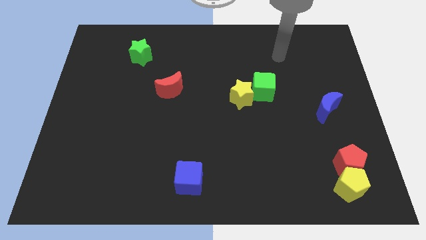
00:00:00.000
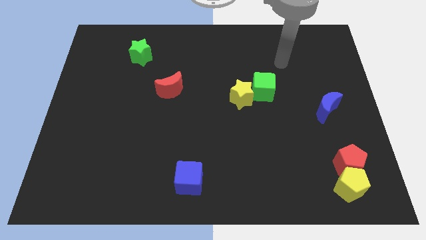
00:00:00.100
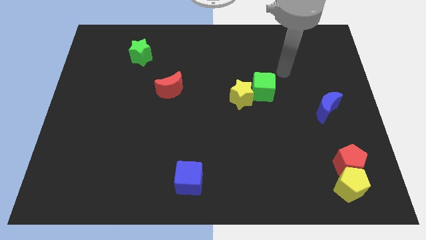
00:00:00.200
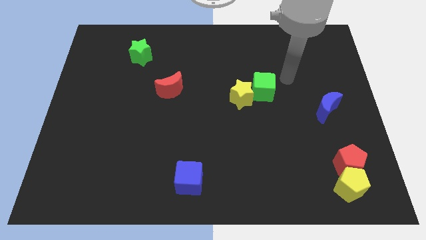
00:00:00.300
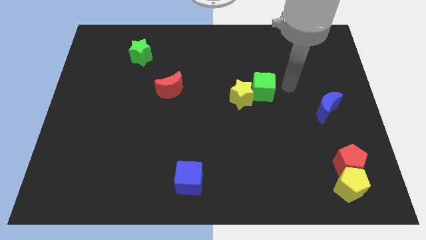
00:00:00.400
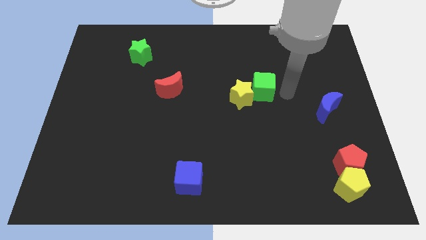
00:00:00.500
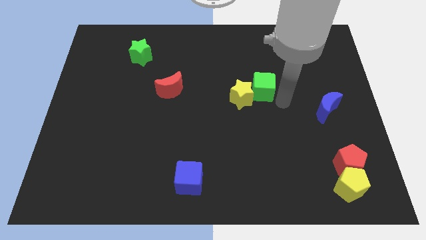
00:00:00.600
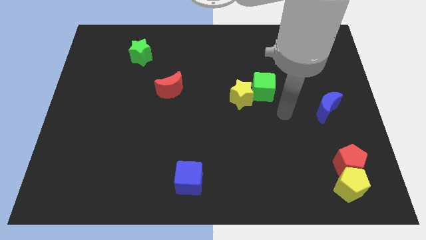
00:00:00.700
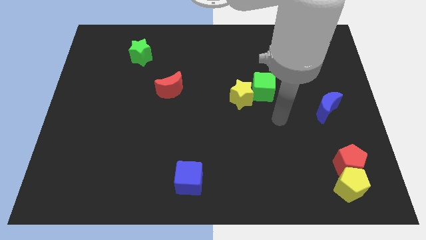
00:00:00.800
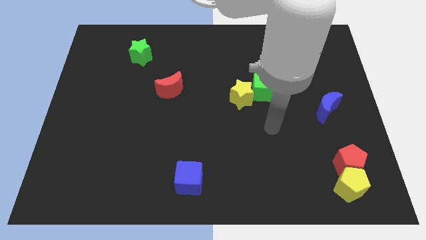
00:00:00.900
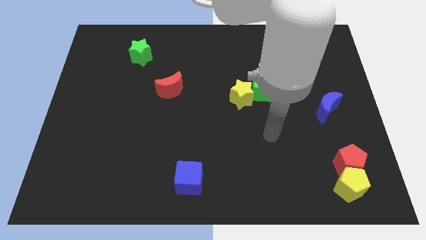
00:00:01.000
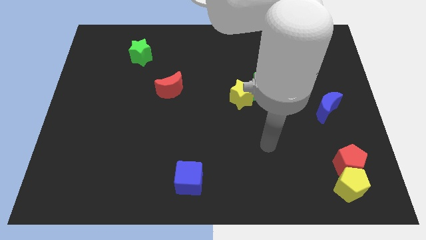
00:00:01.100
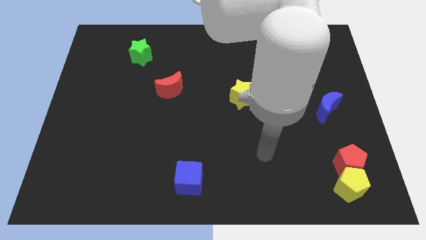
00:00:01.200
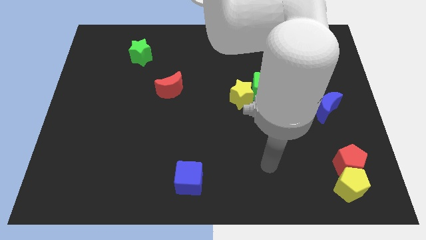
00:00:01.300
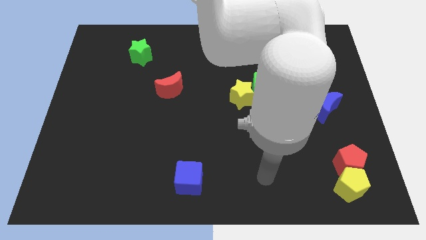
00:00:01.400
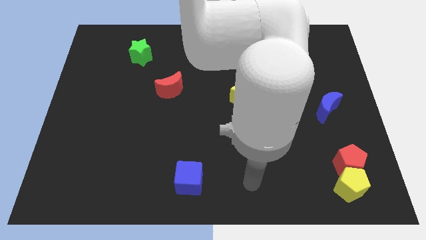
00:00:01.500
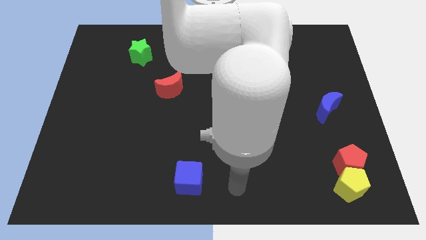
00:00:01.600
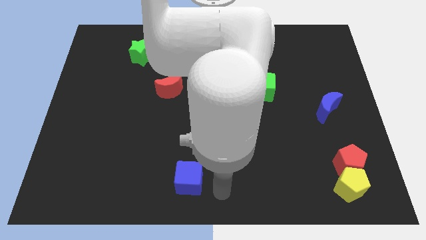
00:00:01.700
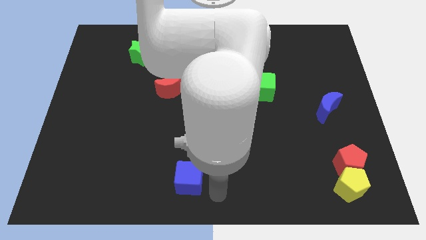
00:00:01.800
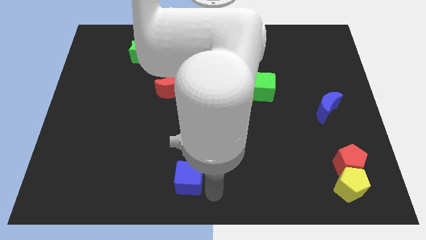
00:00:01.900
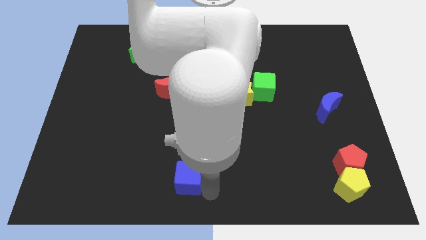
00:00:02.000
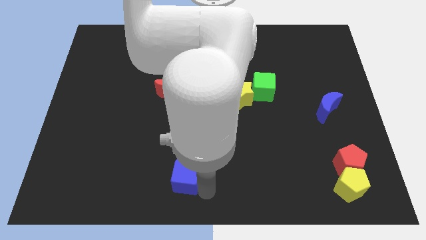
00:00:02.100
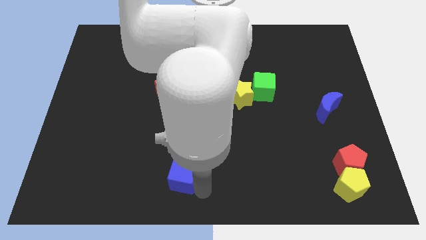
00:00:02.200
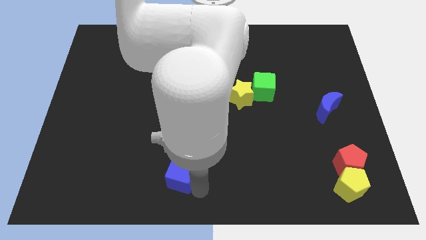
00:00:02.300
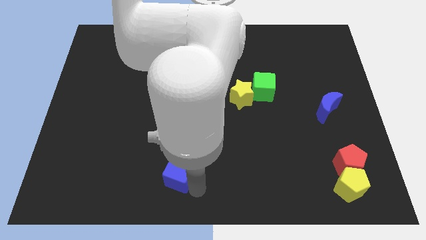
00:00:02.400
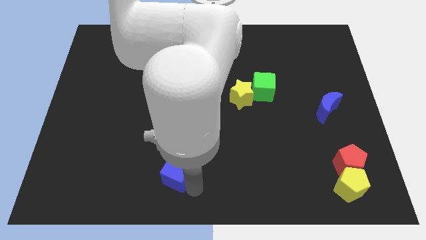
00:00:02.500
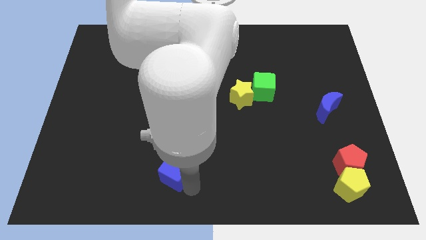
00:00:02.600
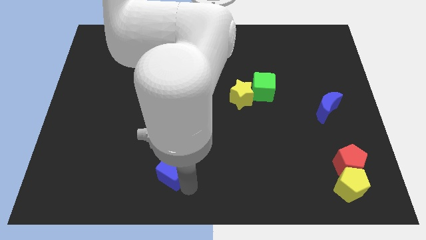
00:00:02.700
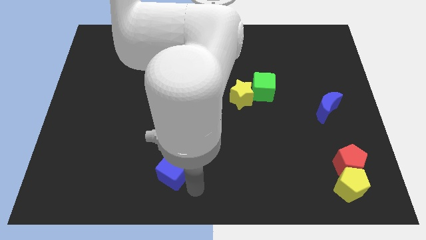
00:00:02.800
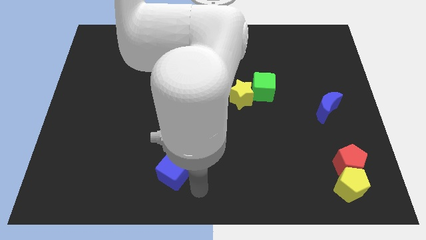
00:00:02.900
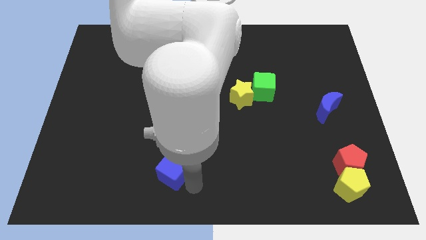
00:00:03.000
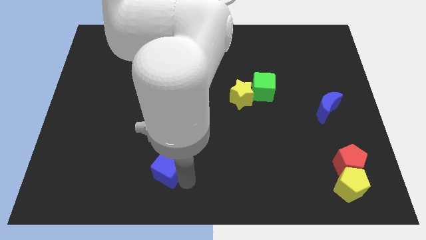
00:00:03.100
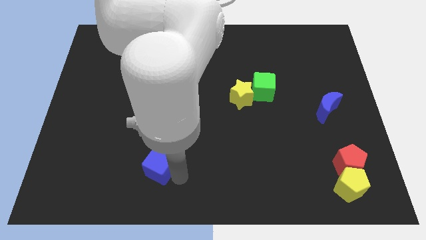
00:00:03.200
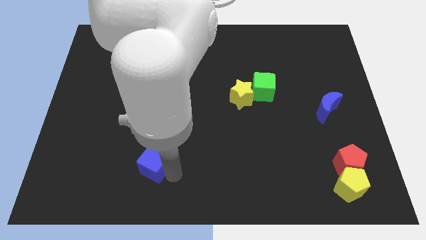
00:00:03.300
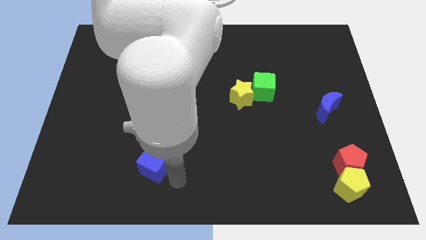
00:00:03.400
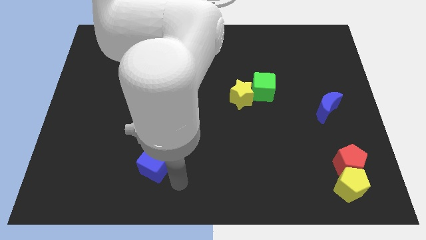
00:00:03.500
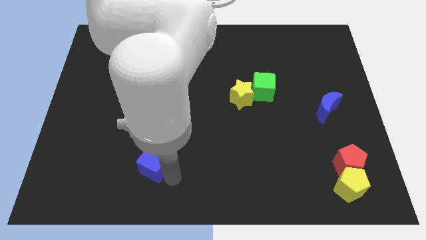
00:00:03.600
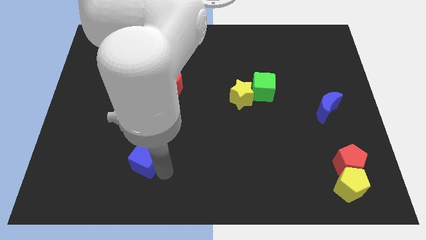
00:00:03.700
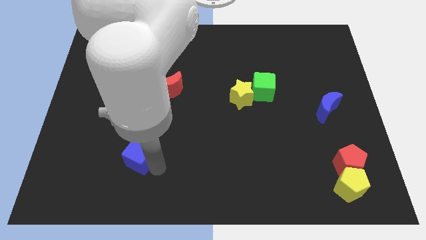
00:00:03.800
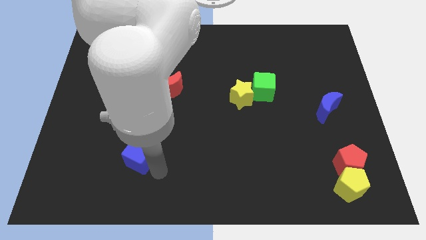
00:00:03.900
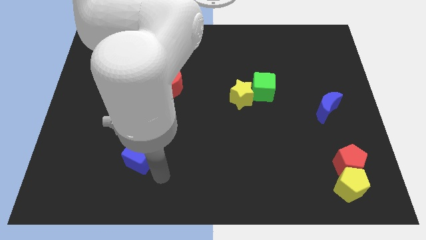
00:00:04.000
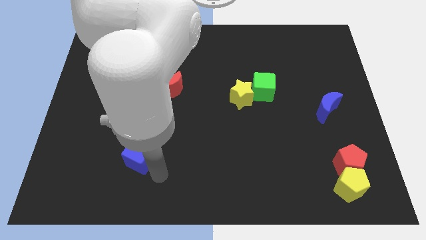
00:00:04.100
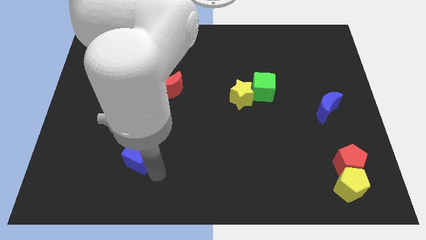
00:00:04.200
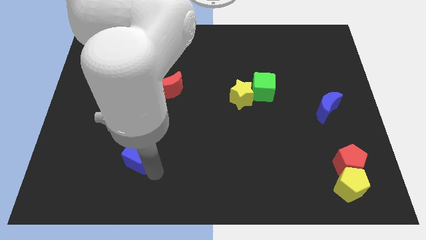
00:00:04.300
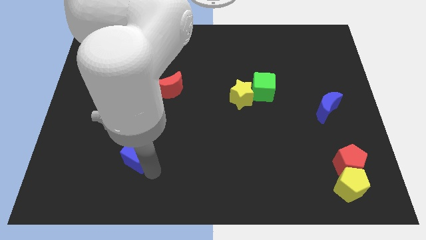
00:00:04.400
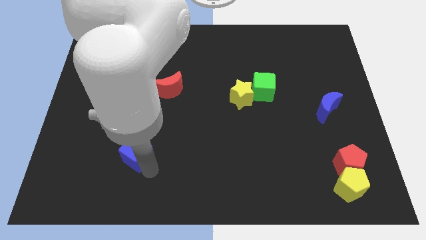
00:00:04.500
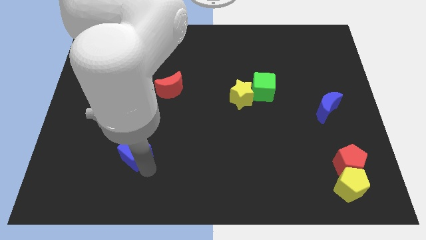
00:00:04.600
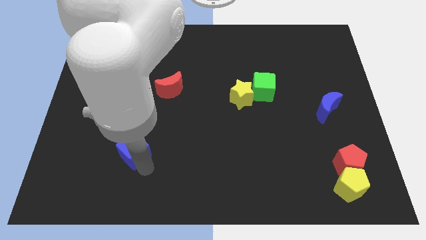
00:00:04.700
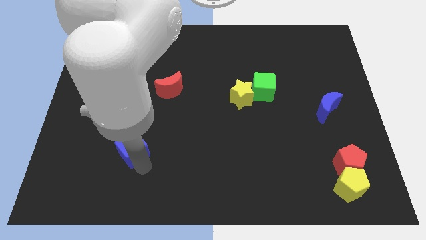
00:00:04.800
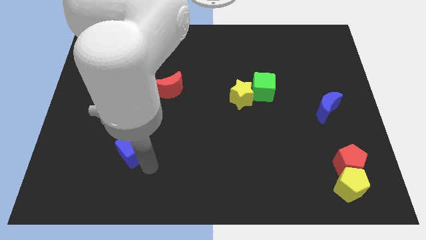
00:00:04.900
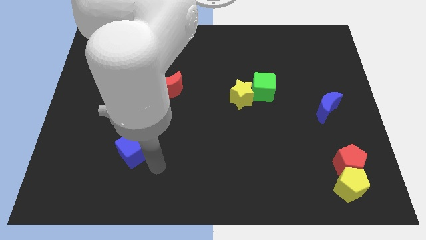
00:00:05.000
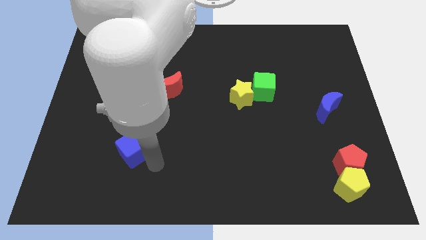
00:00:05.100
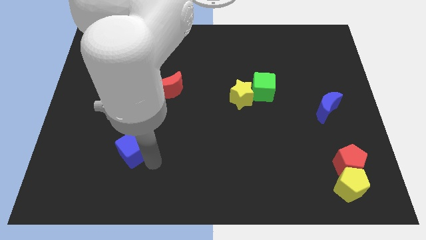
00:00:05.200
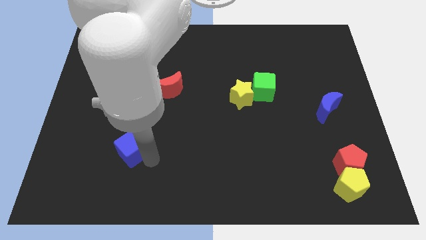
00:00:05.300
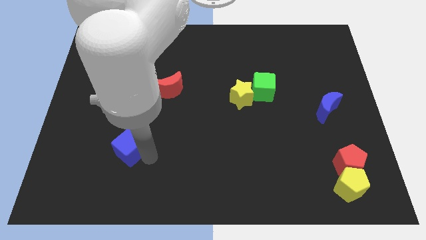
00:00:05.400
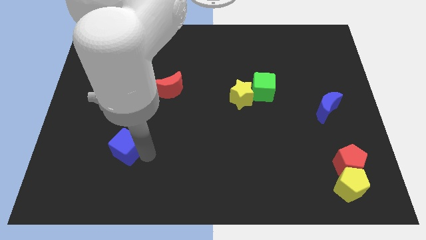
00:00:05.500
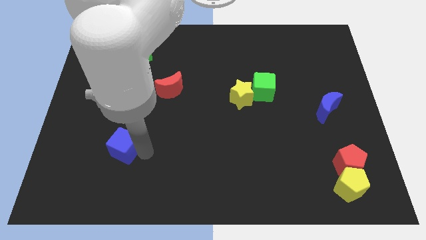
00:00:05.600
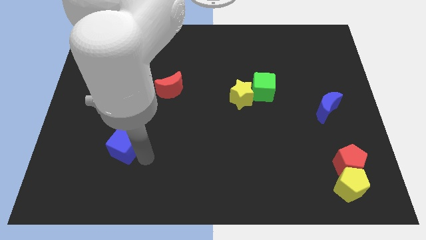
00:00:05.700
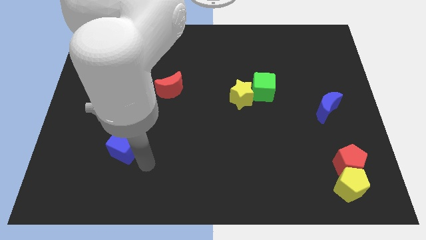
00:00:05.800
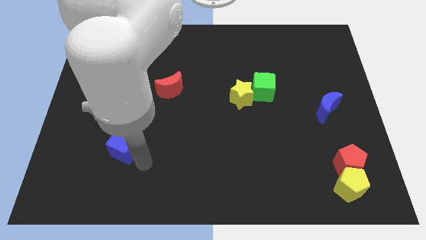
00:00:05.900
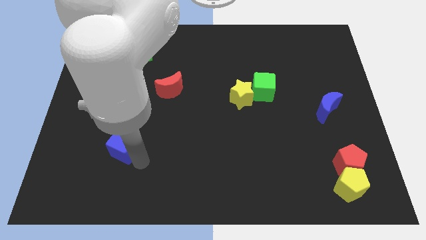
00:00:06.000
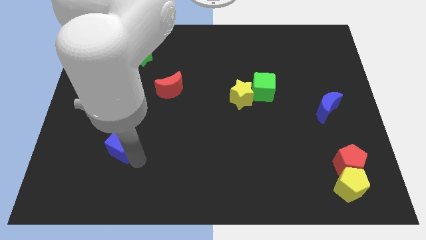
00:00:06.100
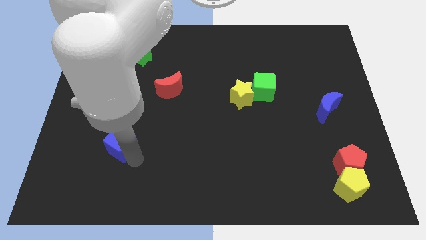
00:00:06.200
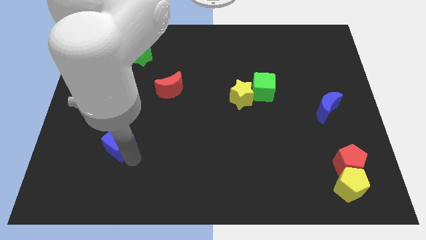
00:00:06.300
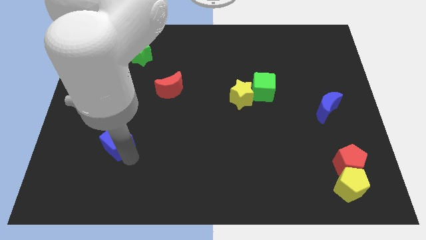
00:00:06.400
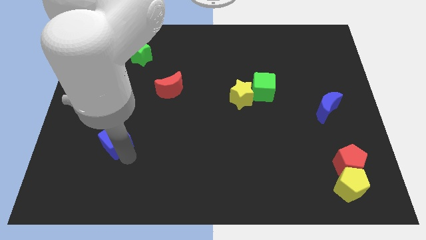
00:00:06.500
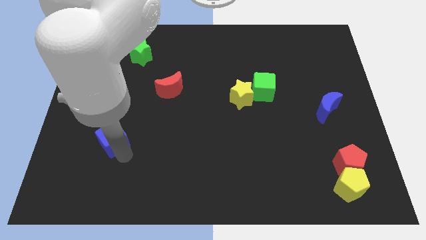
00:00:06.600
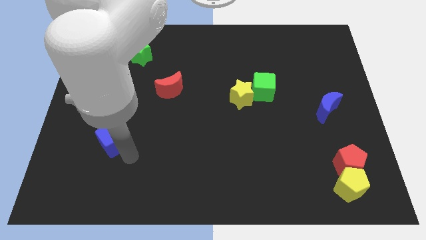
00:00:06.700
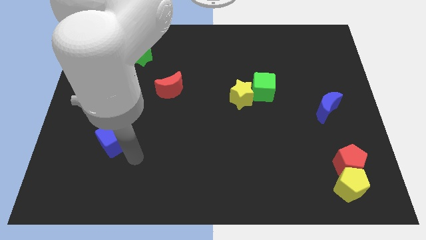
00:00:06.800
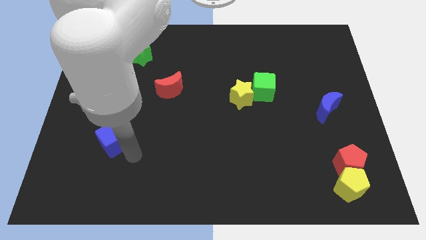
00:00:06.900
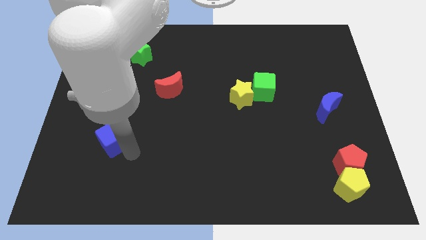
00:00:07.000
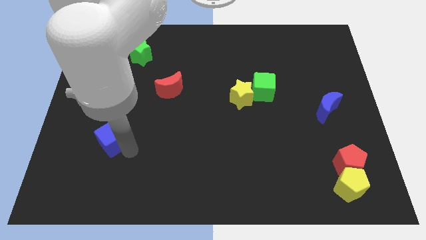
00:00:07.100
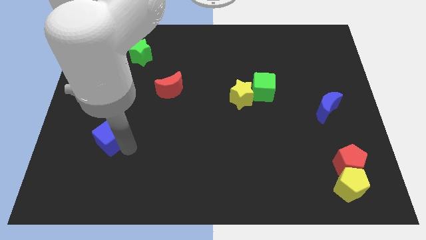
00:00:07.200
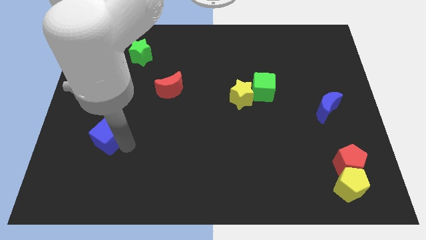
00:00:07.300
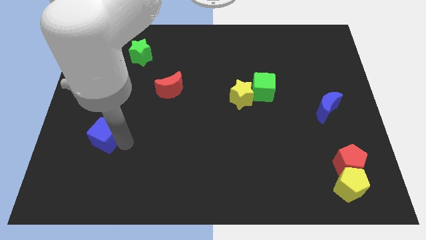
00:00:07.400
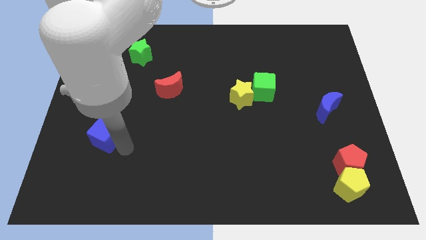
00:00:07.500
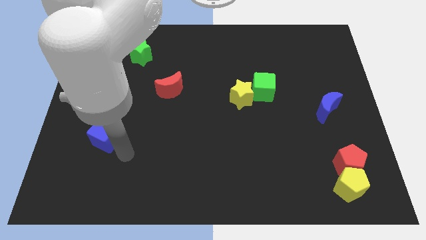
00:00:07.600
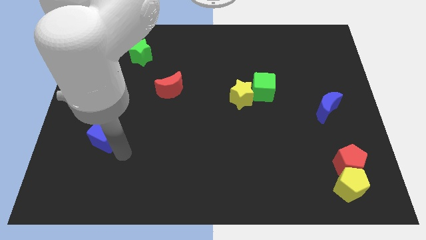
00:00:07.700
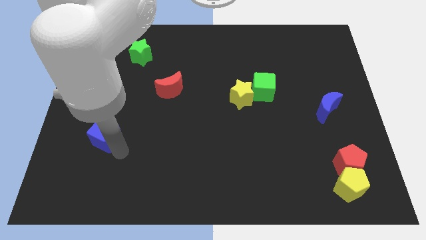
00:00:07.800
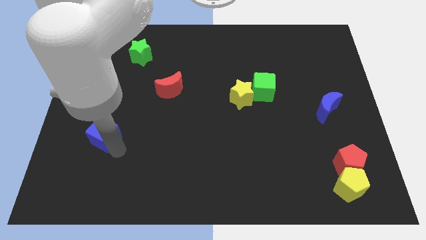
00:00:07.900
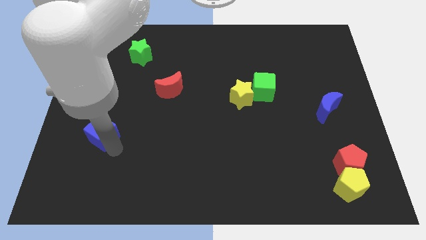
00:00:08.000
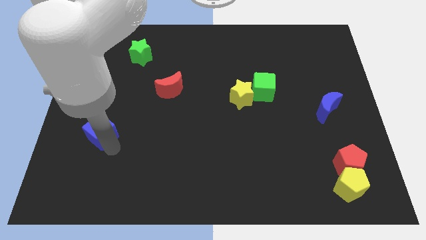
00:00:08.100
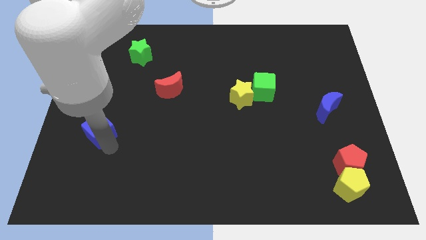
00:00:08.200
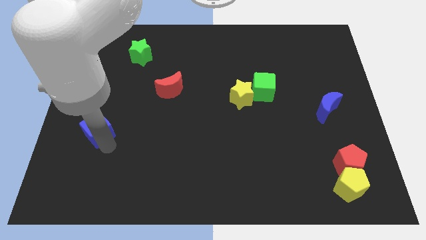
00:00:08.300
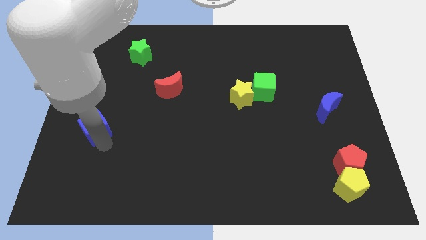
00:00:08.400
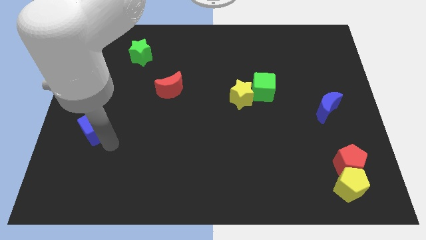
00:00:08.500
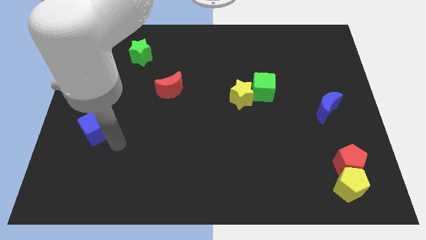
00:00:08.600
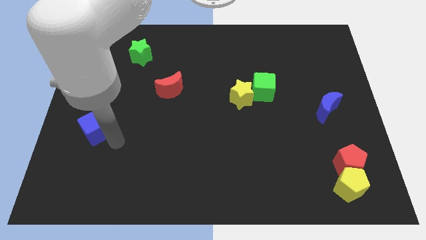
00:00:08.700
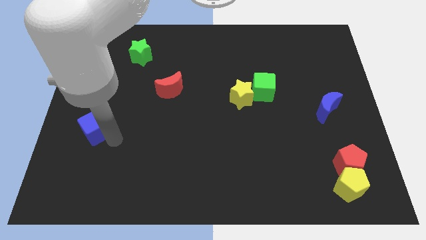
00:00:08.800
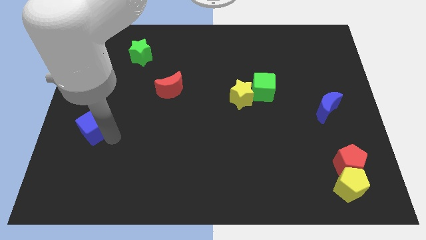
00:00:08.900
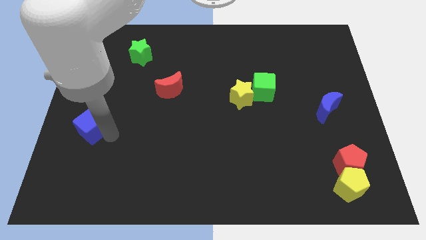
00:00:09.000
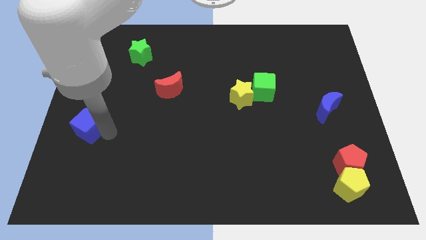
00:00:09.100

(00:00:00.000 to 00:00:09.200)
put the blue cube to the left side
